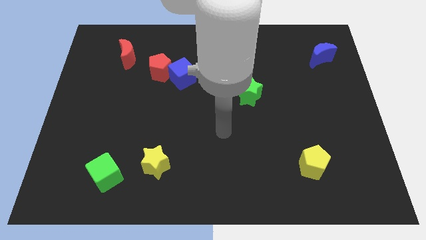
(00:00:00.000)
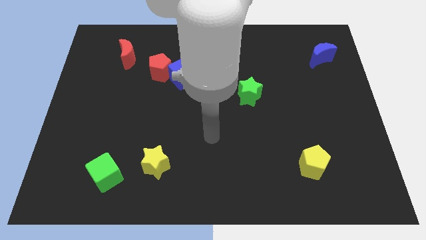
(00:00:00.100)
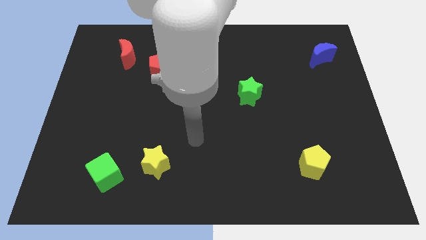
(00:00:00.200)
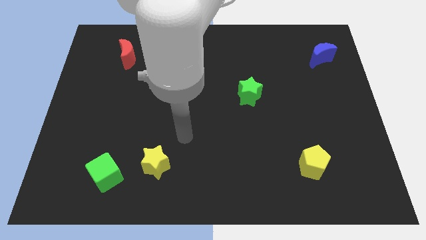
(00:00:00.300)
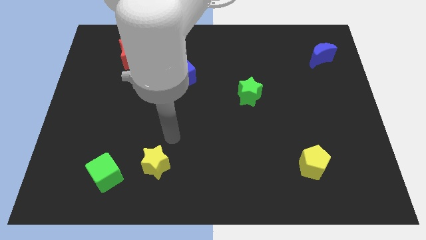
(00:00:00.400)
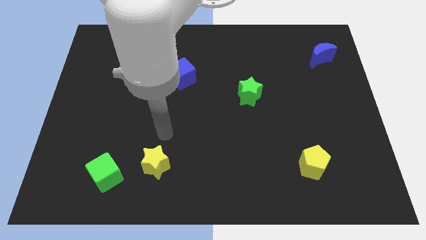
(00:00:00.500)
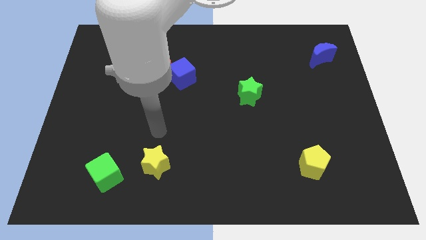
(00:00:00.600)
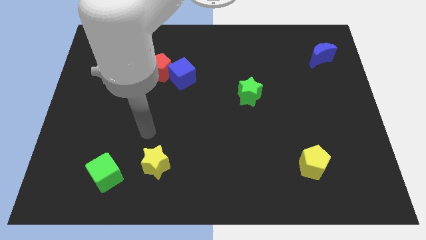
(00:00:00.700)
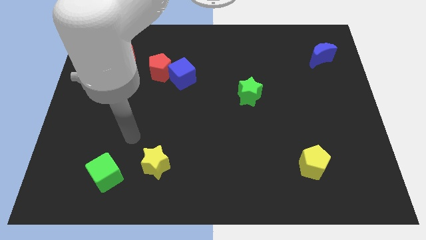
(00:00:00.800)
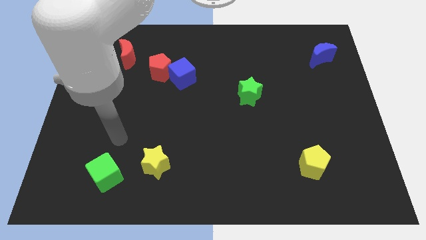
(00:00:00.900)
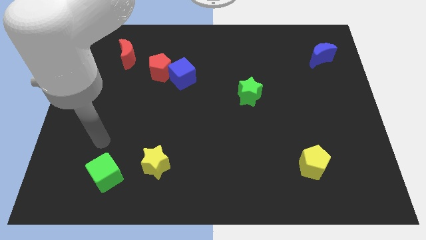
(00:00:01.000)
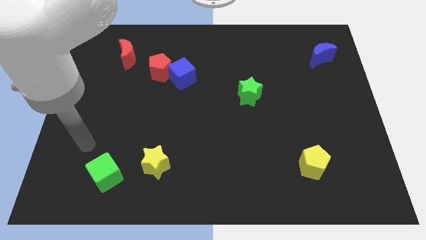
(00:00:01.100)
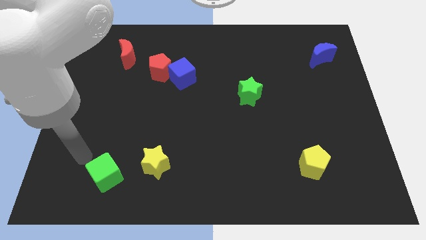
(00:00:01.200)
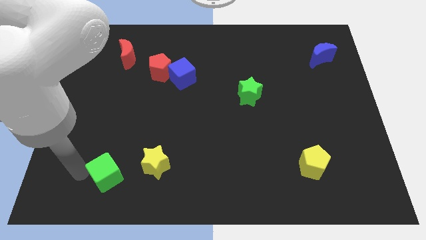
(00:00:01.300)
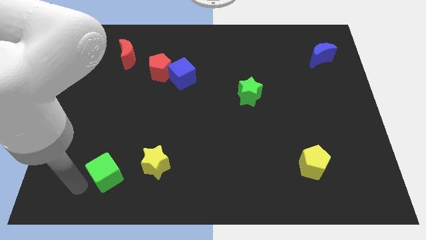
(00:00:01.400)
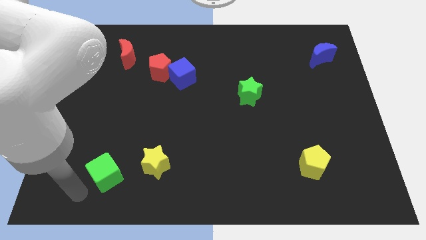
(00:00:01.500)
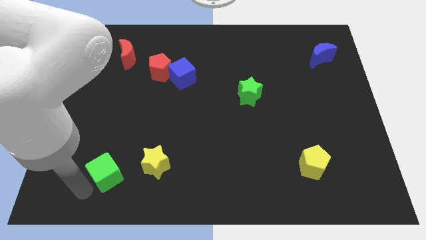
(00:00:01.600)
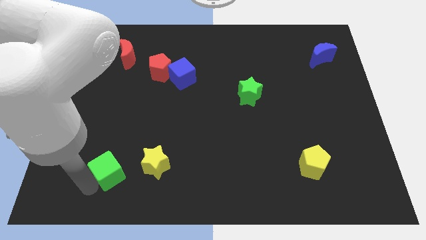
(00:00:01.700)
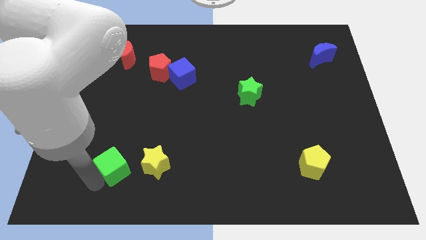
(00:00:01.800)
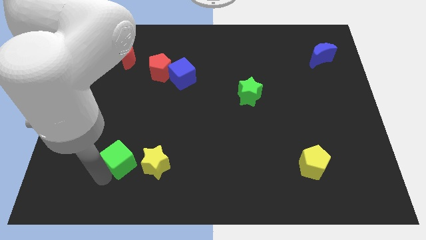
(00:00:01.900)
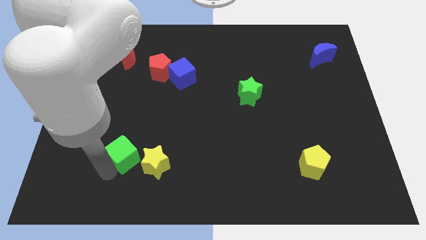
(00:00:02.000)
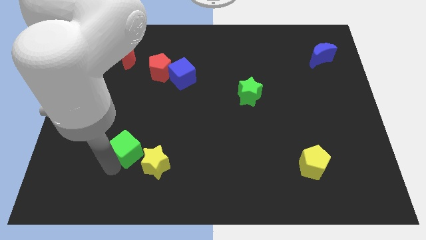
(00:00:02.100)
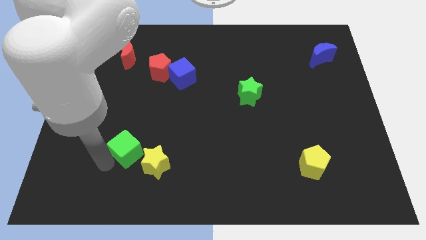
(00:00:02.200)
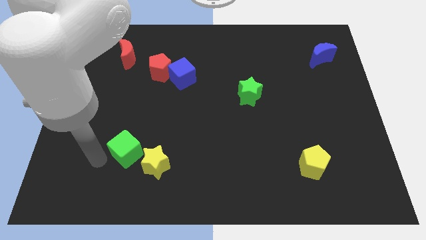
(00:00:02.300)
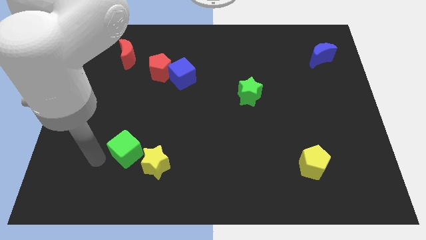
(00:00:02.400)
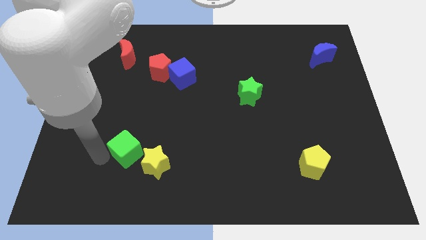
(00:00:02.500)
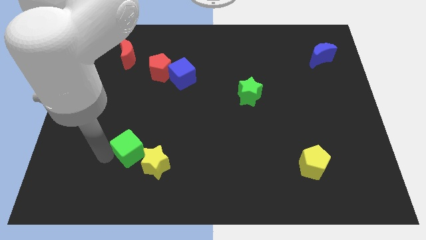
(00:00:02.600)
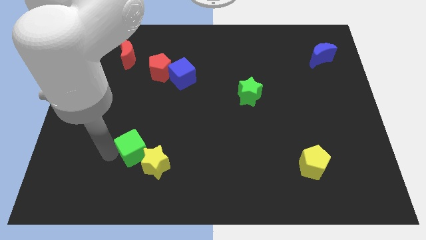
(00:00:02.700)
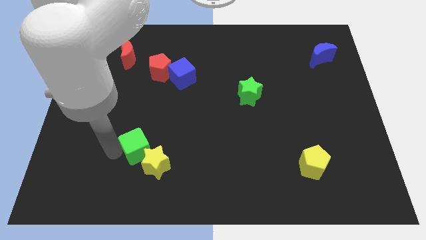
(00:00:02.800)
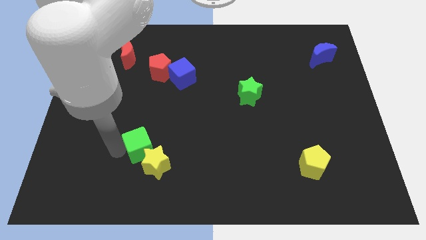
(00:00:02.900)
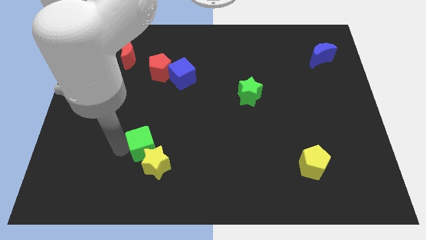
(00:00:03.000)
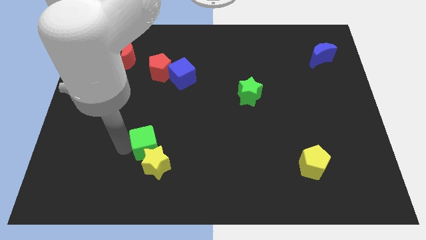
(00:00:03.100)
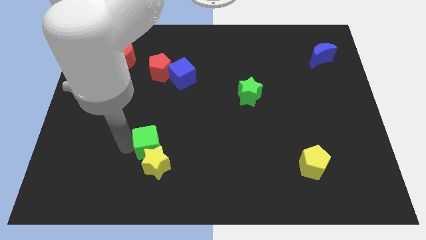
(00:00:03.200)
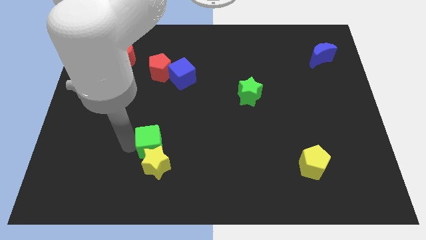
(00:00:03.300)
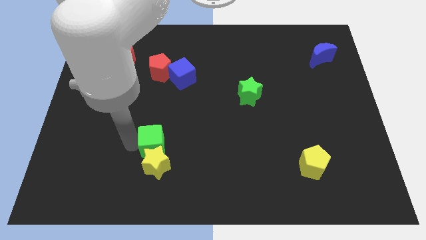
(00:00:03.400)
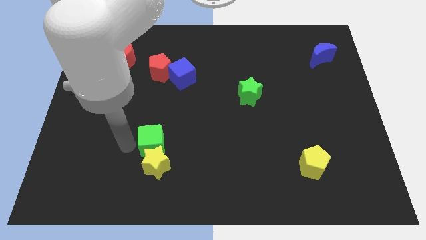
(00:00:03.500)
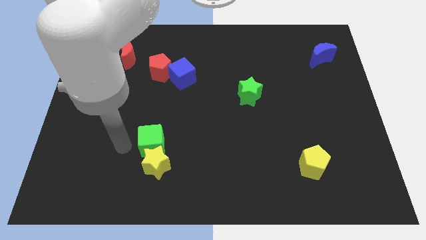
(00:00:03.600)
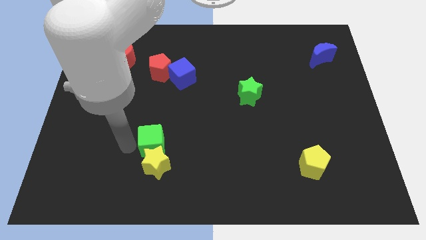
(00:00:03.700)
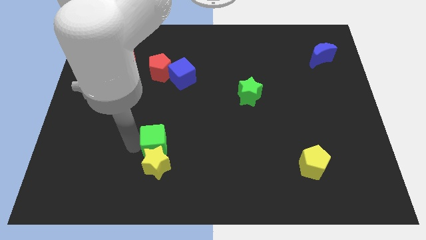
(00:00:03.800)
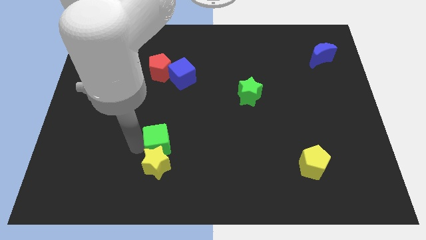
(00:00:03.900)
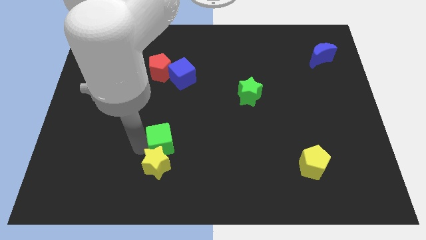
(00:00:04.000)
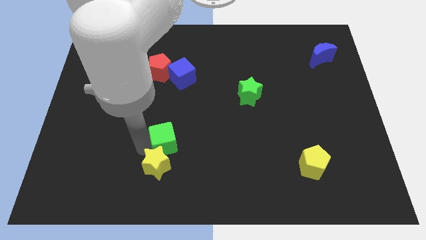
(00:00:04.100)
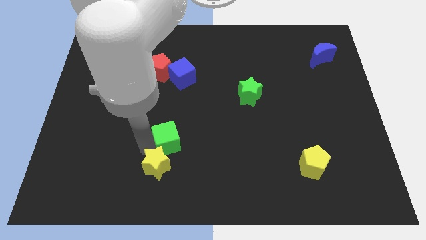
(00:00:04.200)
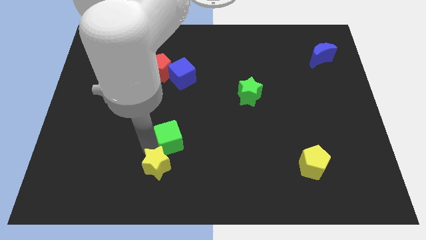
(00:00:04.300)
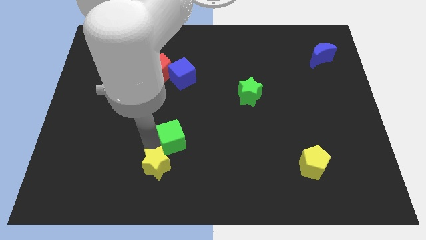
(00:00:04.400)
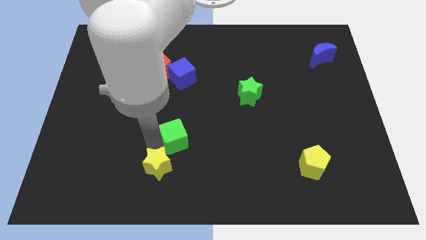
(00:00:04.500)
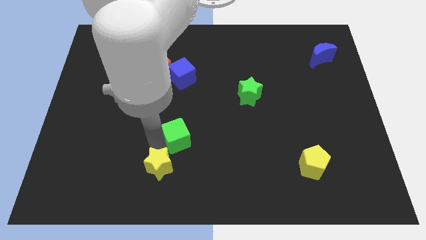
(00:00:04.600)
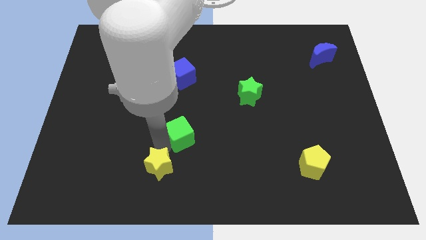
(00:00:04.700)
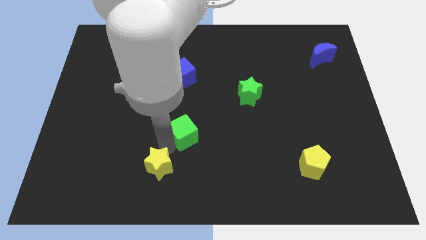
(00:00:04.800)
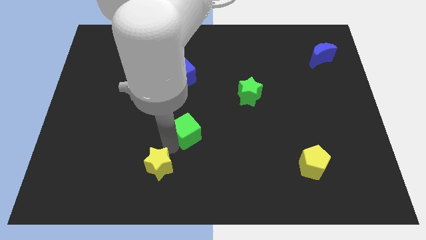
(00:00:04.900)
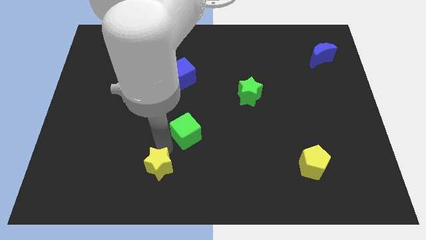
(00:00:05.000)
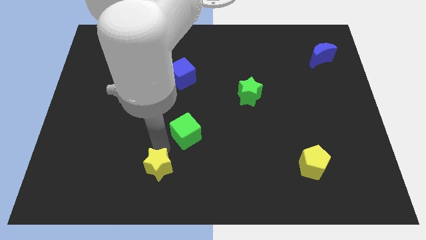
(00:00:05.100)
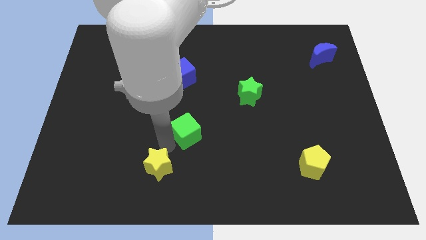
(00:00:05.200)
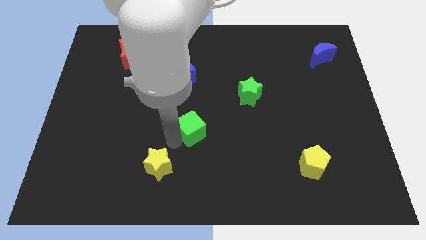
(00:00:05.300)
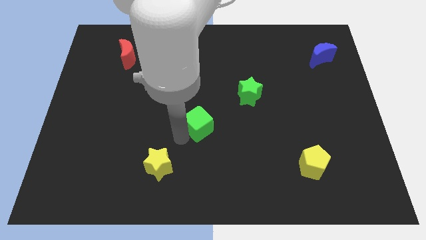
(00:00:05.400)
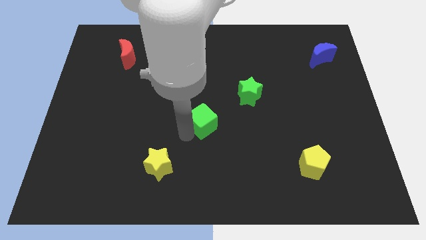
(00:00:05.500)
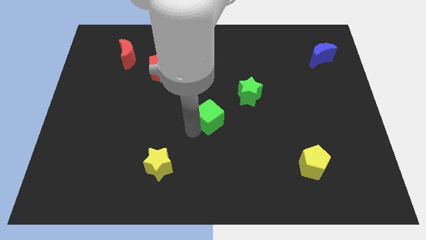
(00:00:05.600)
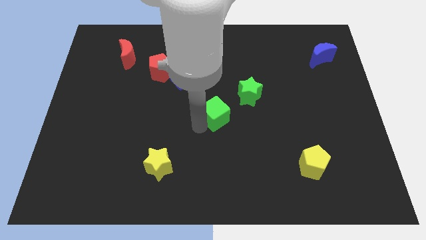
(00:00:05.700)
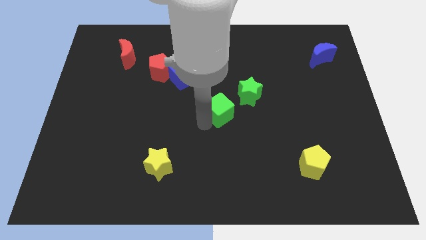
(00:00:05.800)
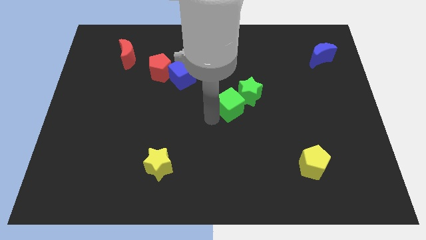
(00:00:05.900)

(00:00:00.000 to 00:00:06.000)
push the green cube close to the green star

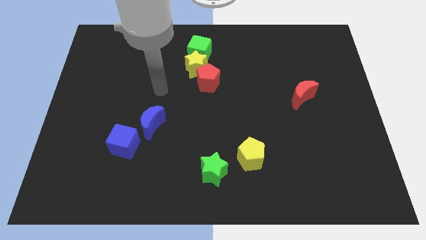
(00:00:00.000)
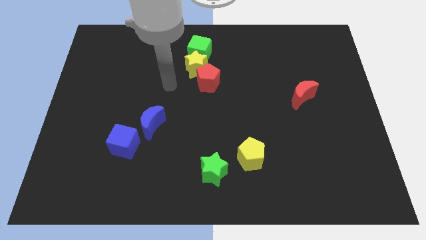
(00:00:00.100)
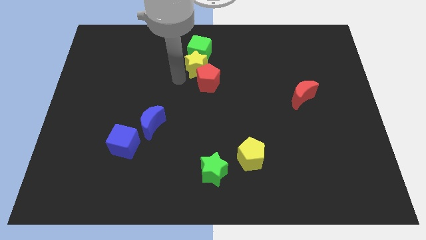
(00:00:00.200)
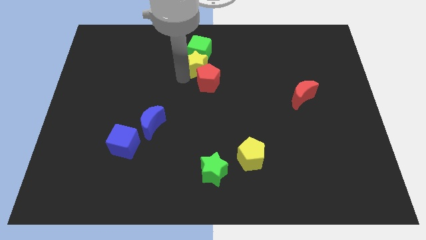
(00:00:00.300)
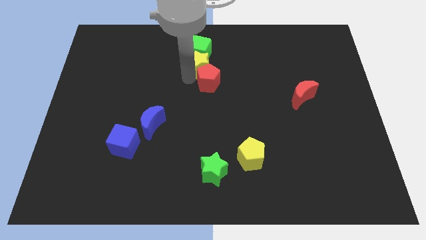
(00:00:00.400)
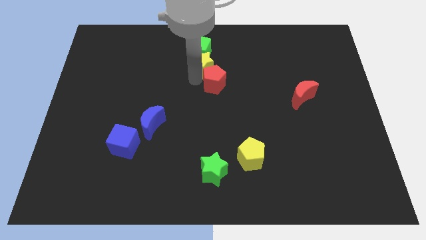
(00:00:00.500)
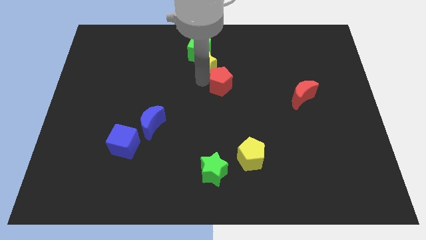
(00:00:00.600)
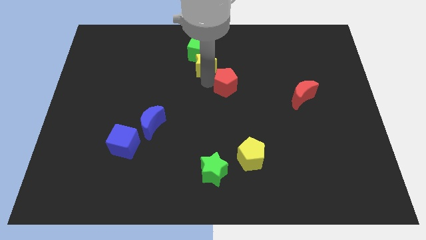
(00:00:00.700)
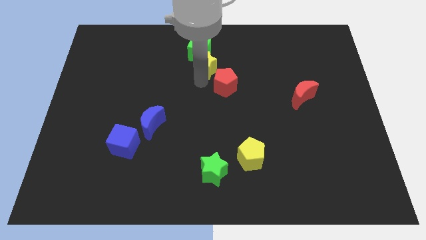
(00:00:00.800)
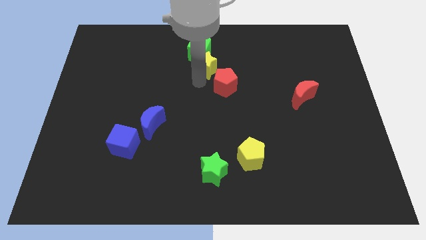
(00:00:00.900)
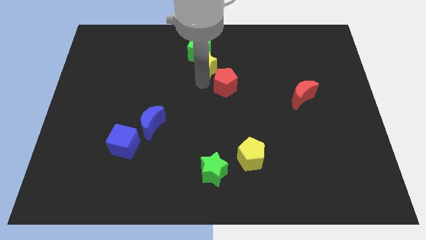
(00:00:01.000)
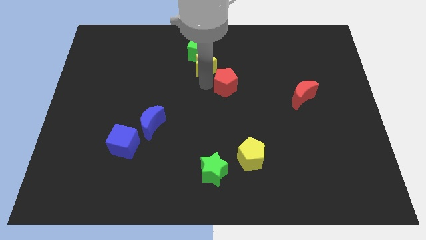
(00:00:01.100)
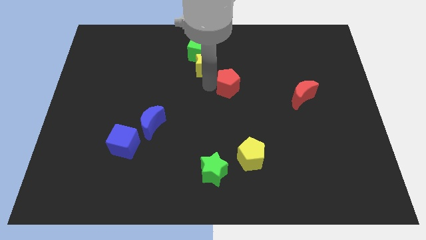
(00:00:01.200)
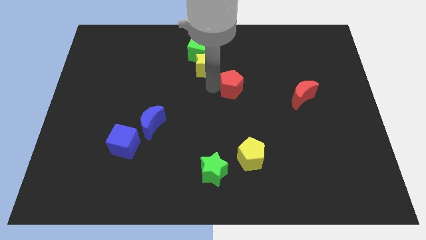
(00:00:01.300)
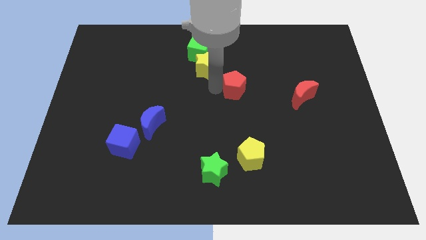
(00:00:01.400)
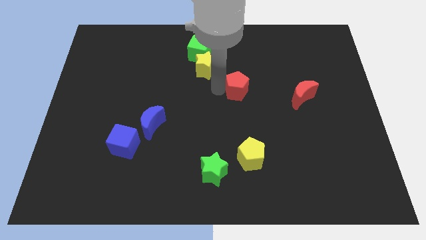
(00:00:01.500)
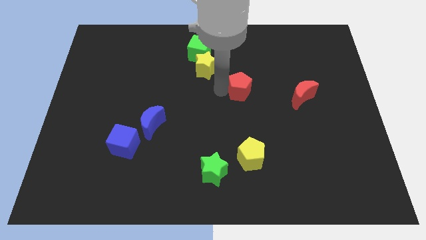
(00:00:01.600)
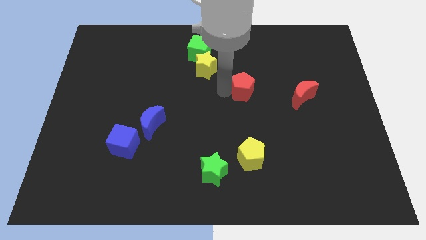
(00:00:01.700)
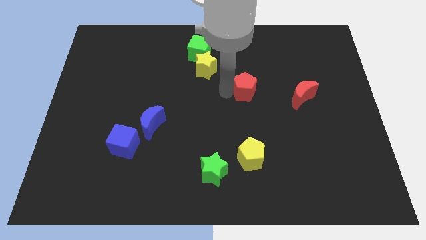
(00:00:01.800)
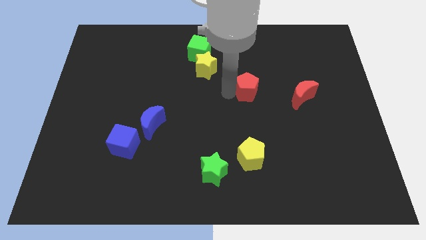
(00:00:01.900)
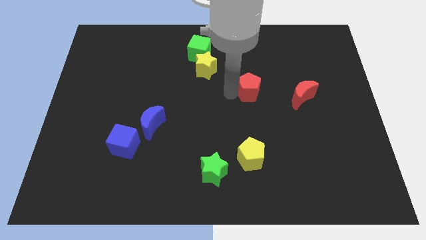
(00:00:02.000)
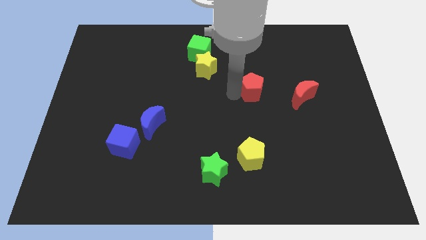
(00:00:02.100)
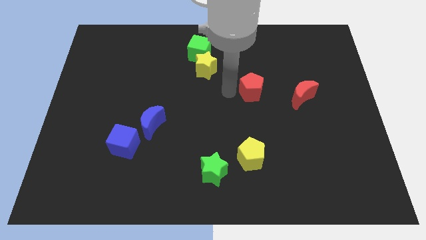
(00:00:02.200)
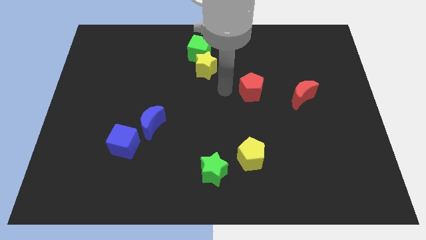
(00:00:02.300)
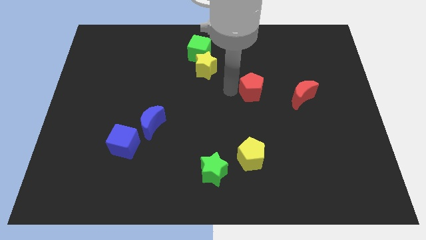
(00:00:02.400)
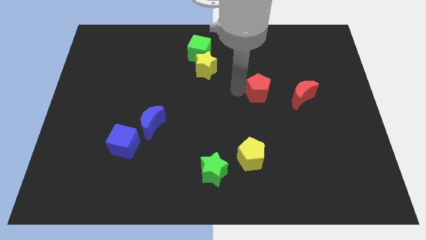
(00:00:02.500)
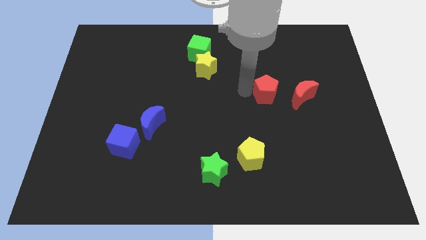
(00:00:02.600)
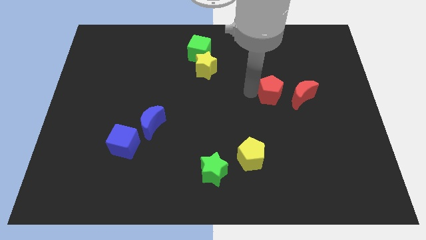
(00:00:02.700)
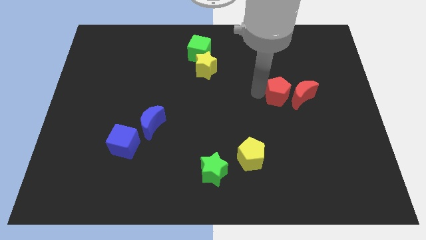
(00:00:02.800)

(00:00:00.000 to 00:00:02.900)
put the red pentagon next to the red moon
